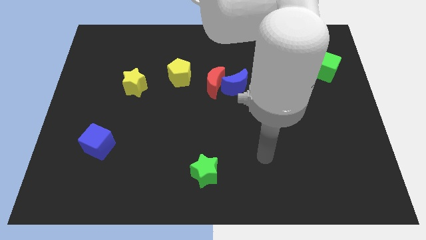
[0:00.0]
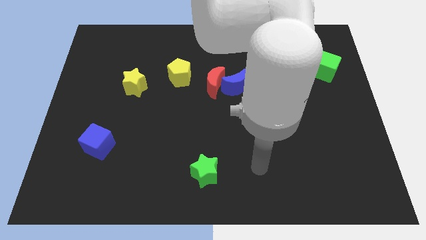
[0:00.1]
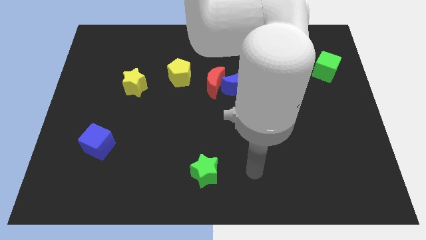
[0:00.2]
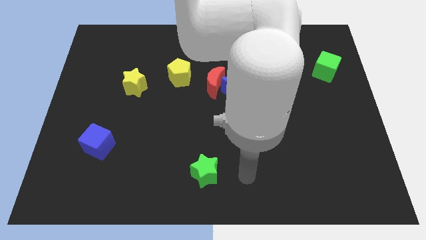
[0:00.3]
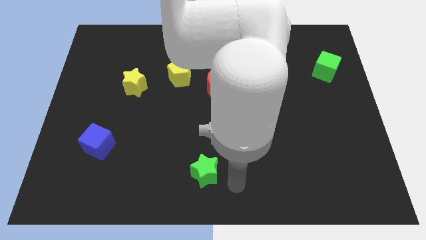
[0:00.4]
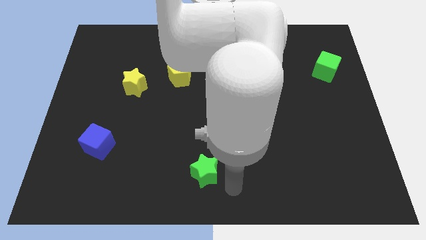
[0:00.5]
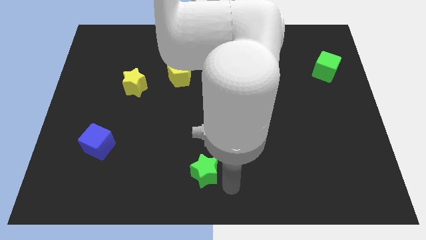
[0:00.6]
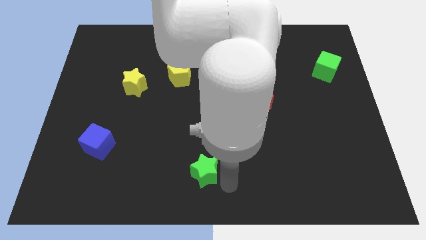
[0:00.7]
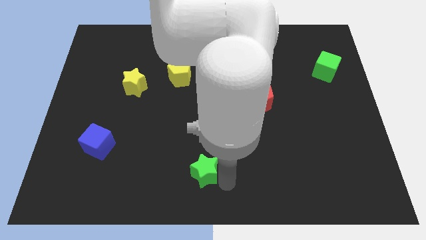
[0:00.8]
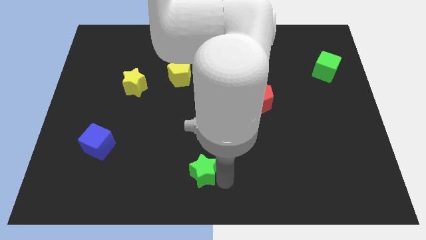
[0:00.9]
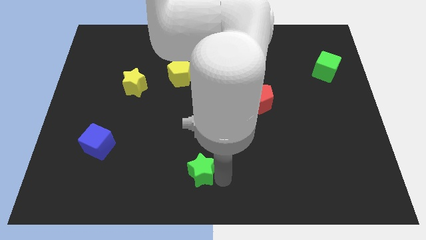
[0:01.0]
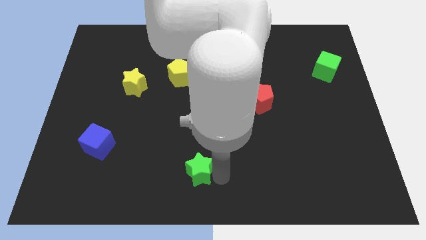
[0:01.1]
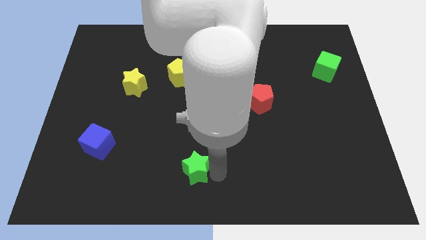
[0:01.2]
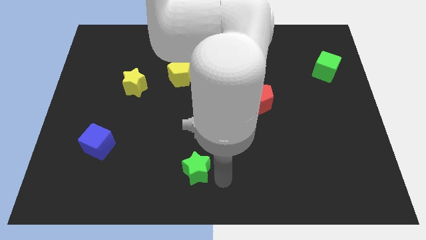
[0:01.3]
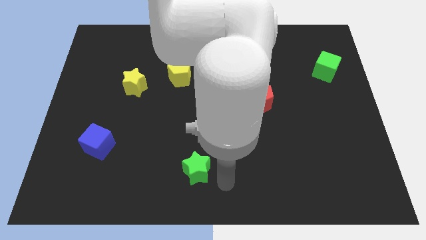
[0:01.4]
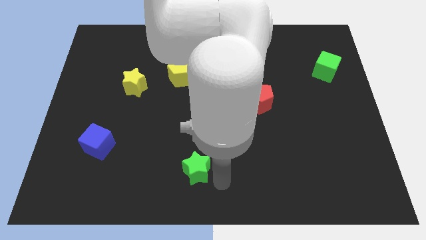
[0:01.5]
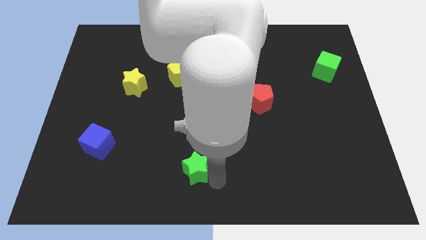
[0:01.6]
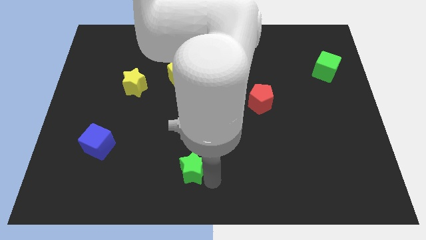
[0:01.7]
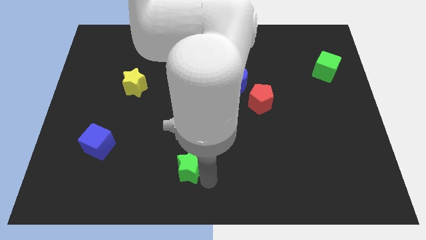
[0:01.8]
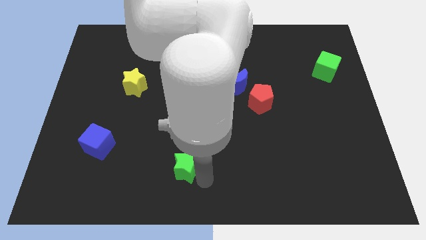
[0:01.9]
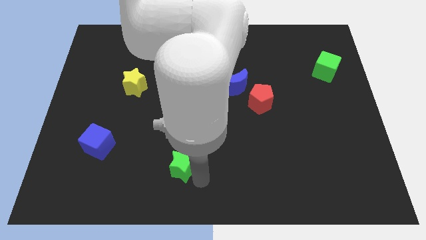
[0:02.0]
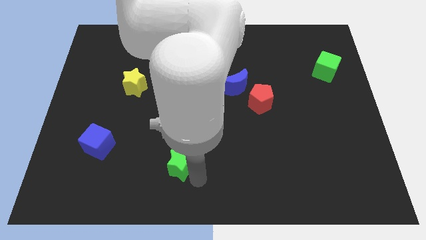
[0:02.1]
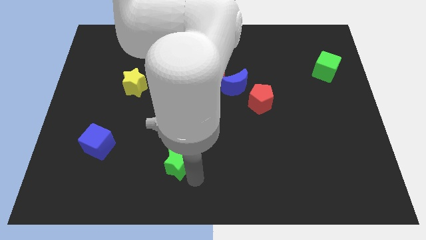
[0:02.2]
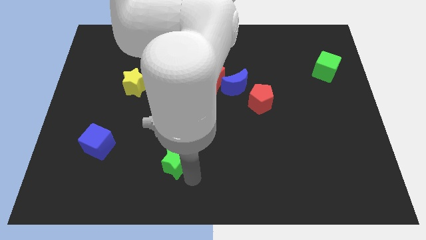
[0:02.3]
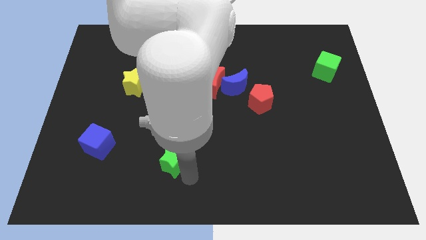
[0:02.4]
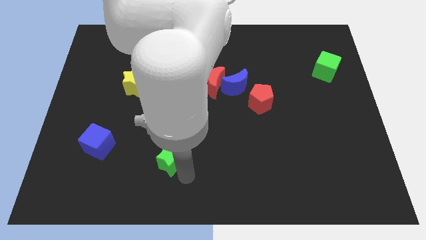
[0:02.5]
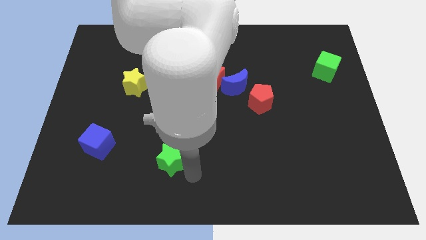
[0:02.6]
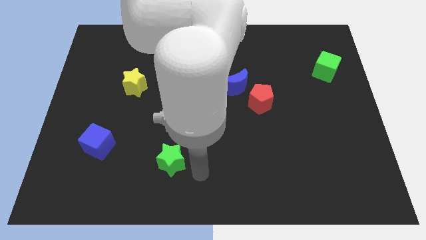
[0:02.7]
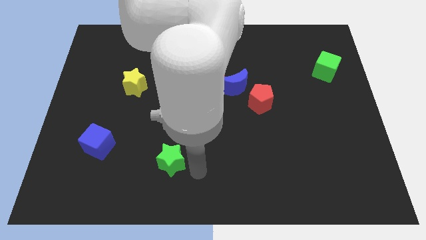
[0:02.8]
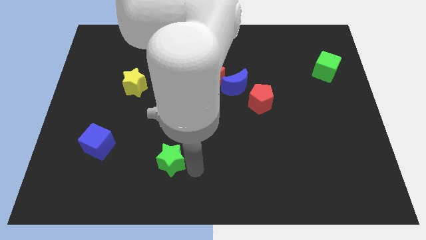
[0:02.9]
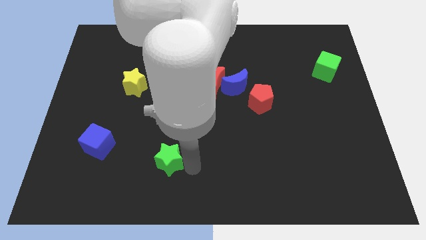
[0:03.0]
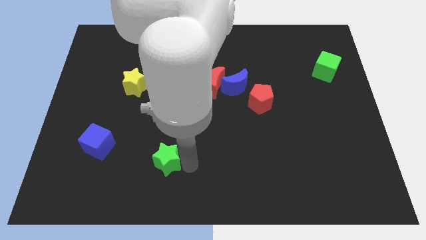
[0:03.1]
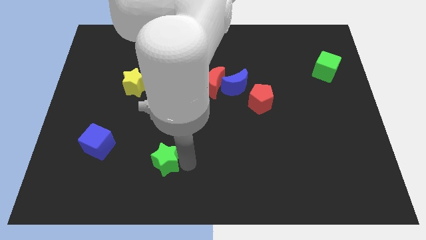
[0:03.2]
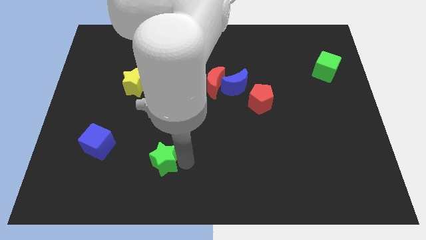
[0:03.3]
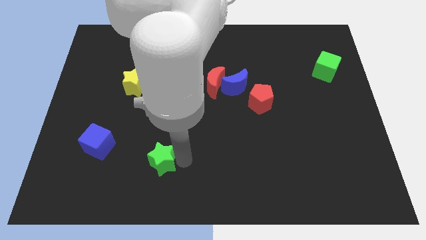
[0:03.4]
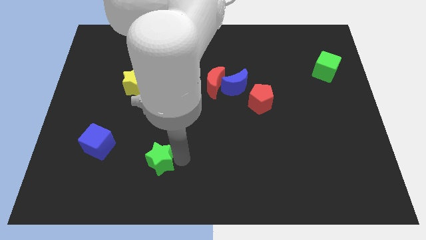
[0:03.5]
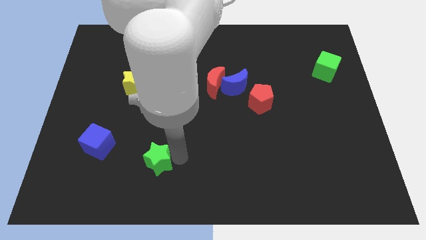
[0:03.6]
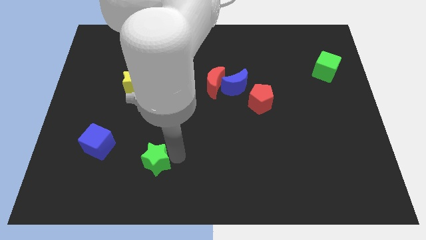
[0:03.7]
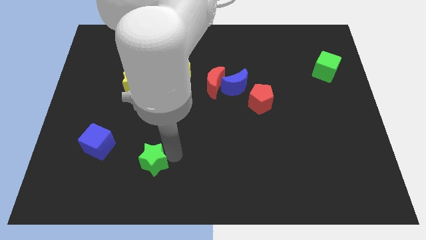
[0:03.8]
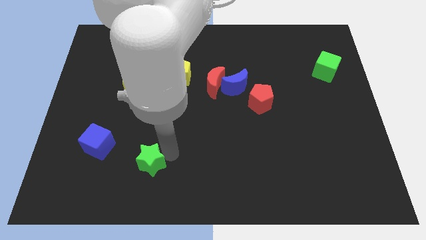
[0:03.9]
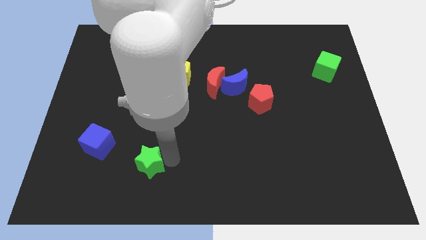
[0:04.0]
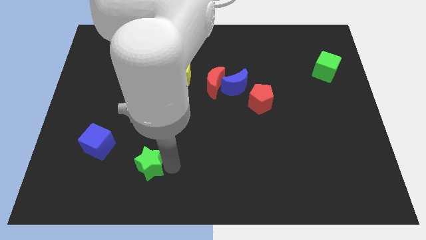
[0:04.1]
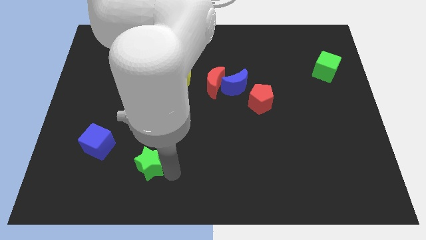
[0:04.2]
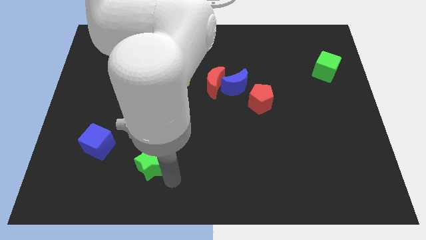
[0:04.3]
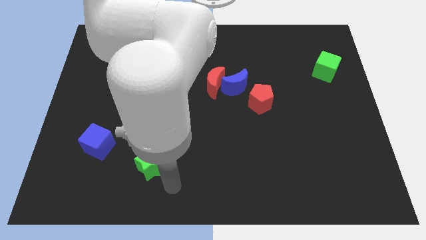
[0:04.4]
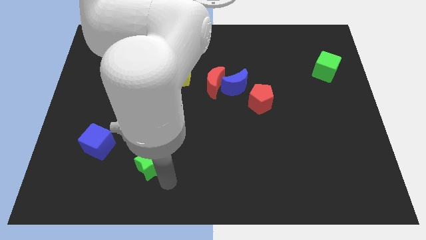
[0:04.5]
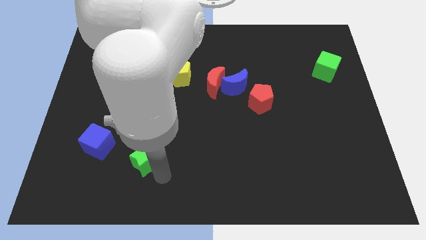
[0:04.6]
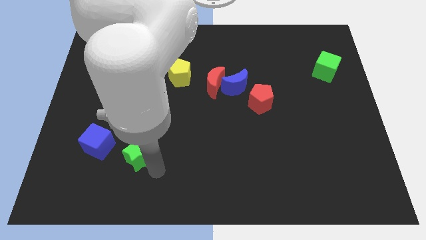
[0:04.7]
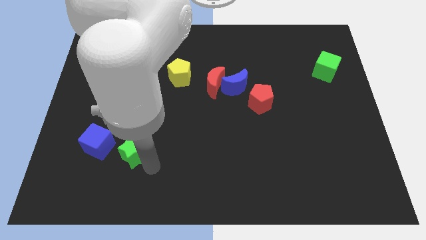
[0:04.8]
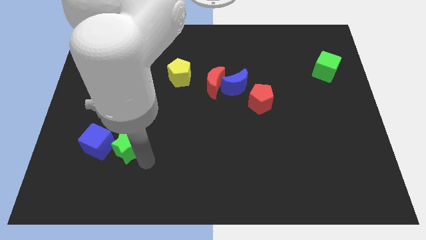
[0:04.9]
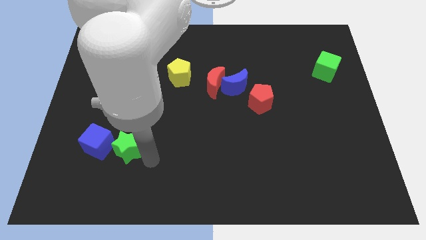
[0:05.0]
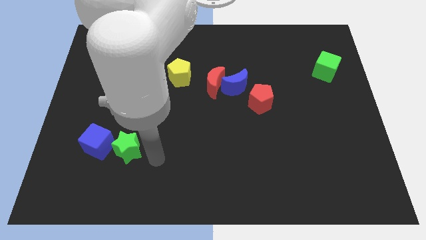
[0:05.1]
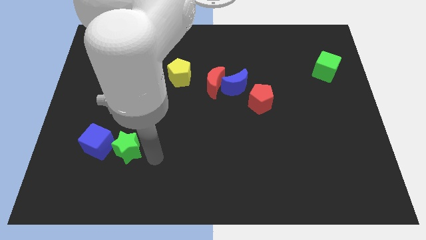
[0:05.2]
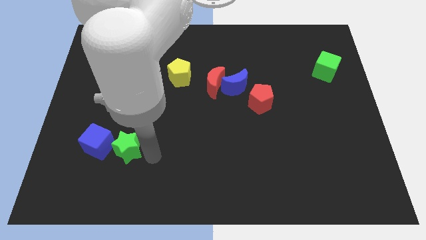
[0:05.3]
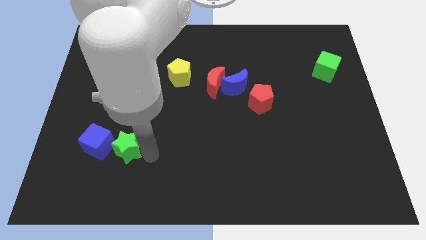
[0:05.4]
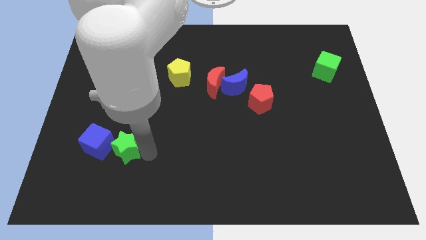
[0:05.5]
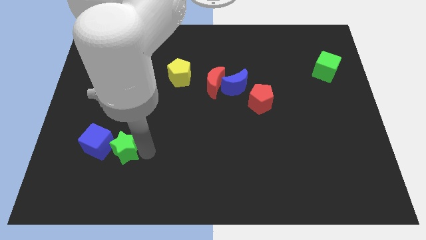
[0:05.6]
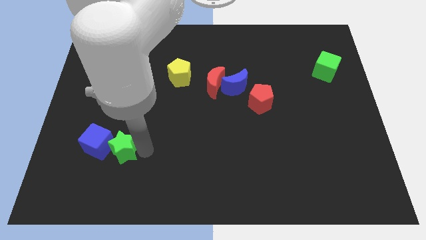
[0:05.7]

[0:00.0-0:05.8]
slide the green star close to the blue cube

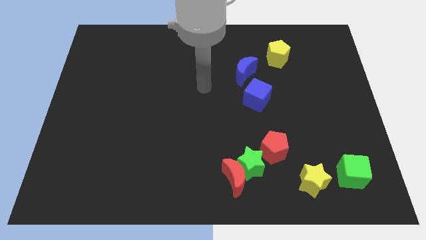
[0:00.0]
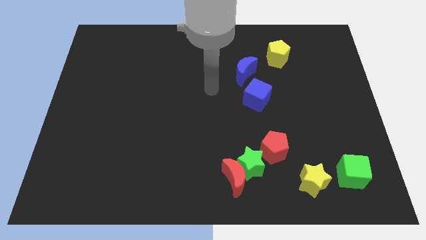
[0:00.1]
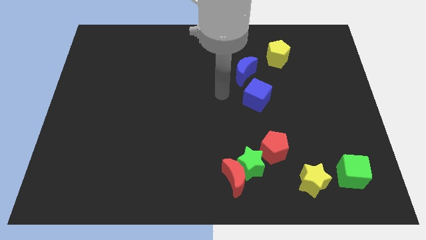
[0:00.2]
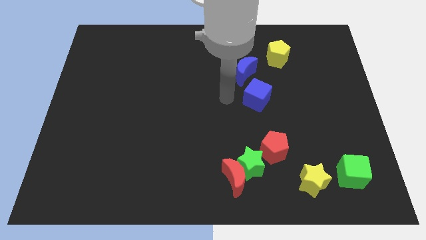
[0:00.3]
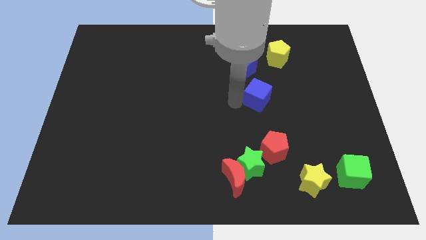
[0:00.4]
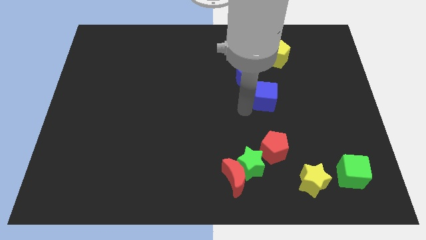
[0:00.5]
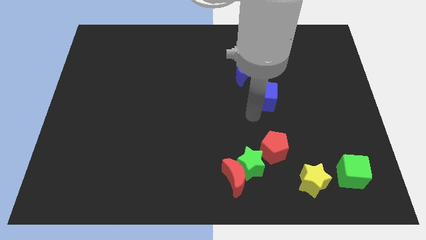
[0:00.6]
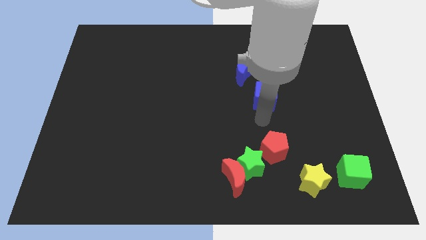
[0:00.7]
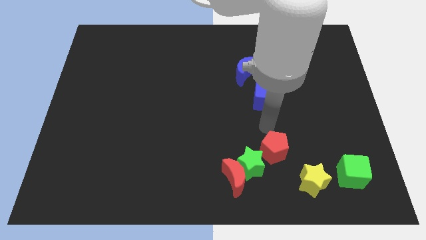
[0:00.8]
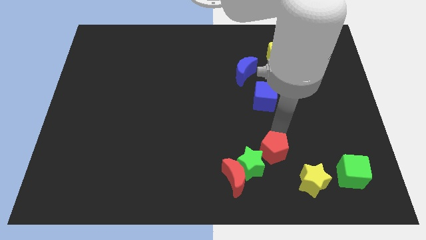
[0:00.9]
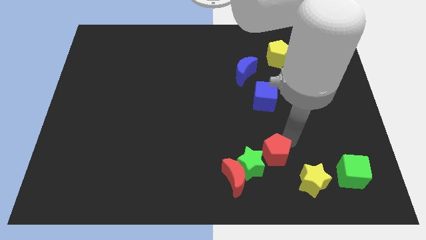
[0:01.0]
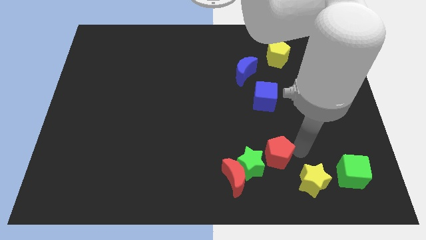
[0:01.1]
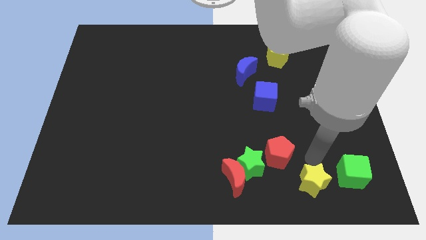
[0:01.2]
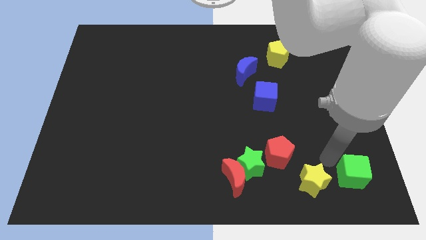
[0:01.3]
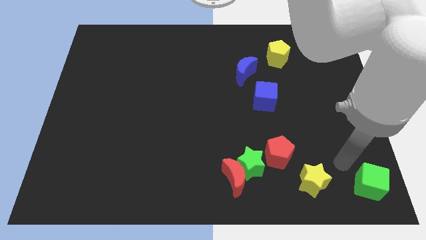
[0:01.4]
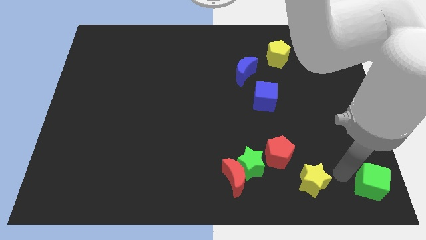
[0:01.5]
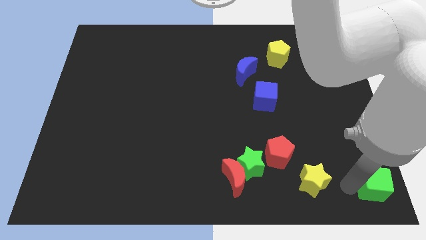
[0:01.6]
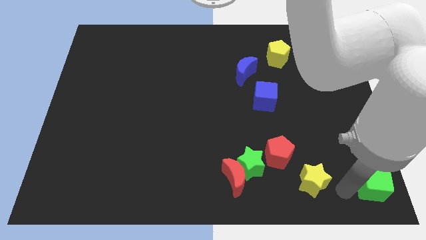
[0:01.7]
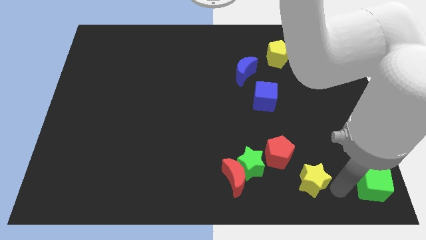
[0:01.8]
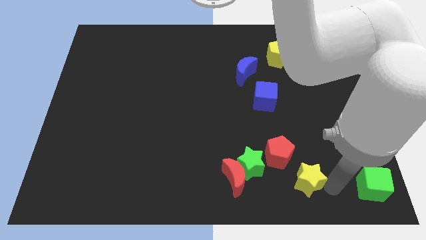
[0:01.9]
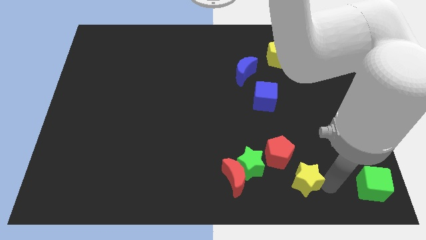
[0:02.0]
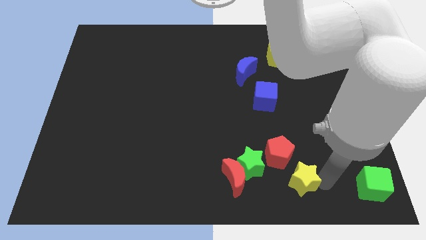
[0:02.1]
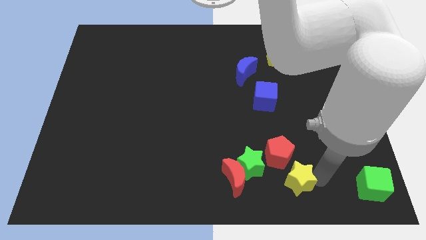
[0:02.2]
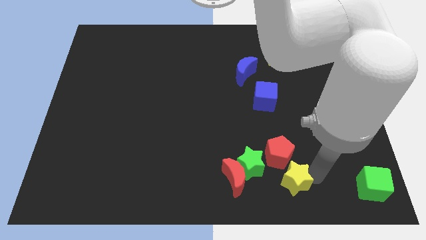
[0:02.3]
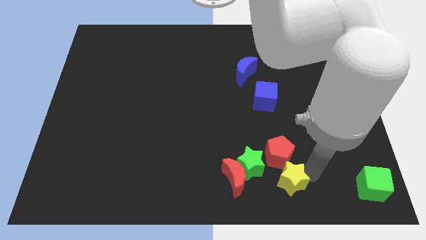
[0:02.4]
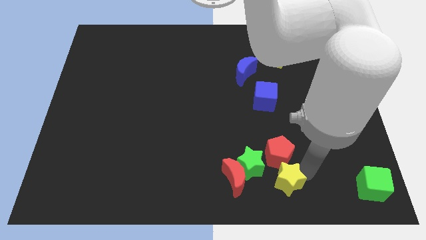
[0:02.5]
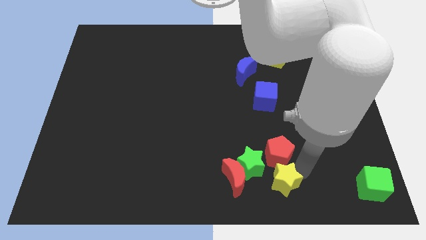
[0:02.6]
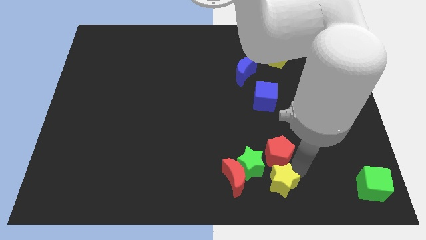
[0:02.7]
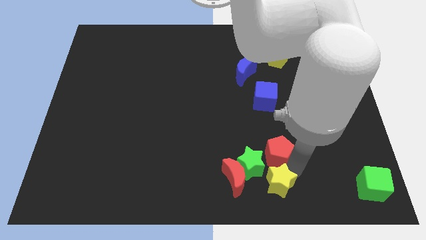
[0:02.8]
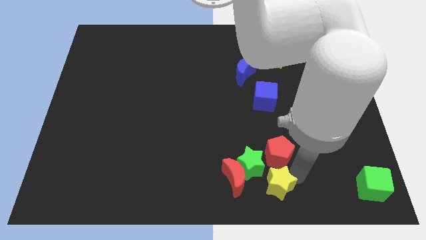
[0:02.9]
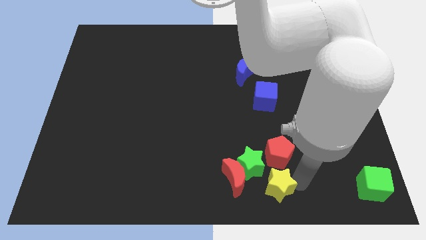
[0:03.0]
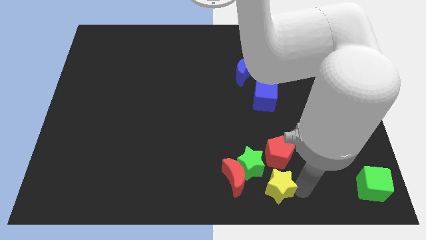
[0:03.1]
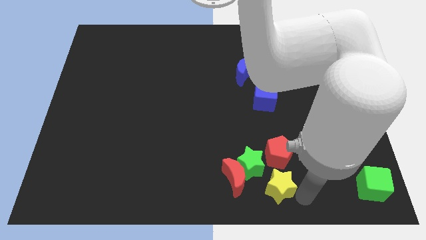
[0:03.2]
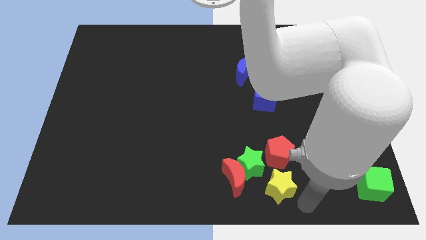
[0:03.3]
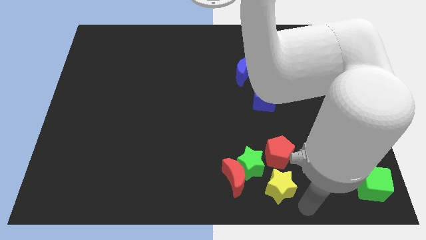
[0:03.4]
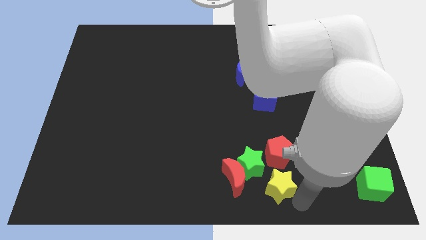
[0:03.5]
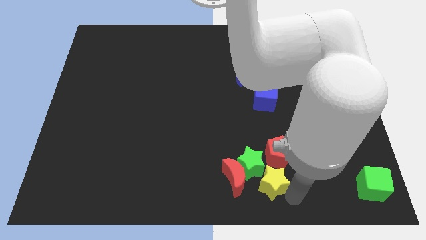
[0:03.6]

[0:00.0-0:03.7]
push the yellow star towards the green star
